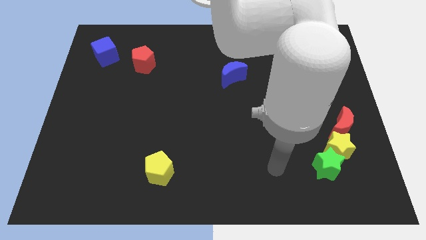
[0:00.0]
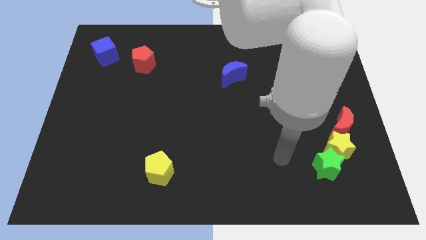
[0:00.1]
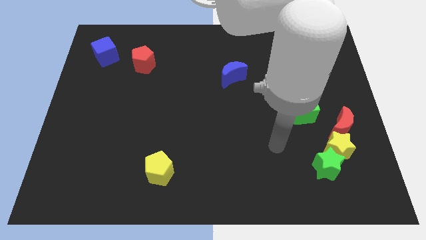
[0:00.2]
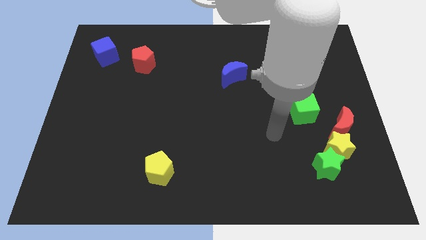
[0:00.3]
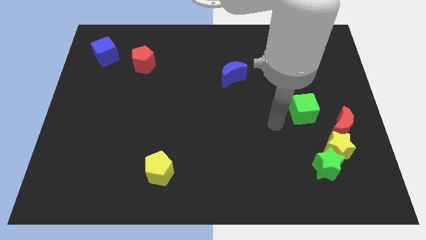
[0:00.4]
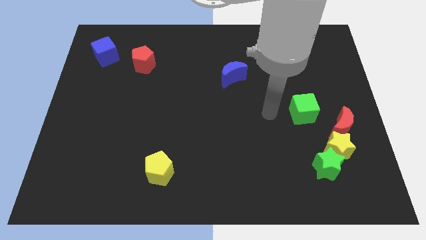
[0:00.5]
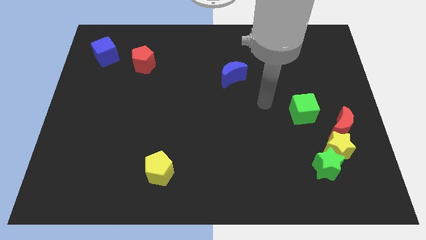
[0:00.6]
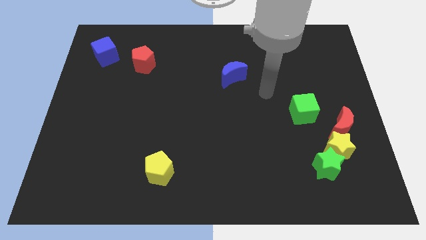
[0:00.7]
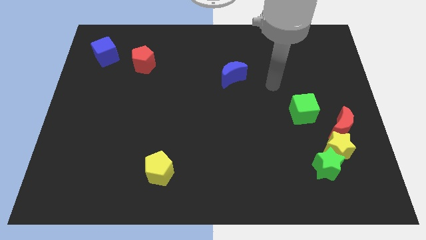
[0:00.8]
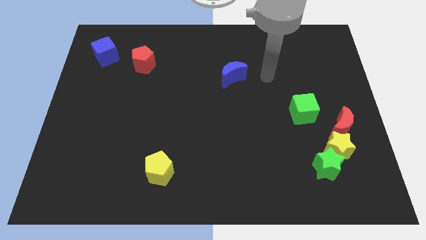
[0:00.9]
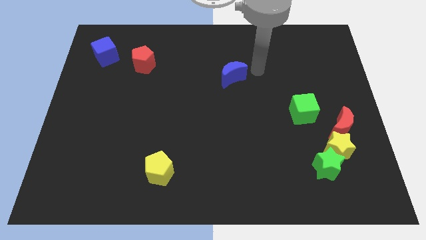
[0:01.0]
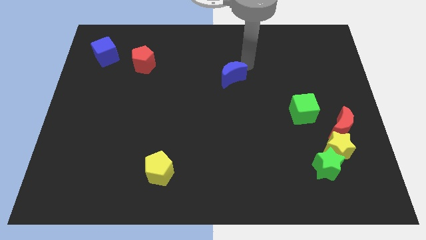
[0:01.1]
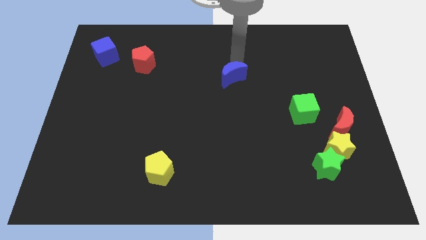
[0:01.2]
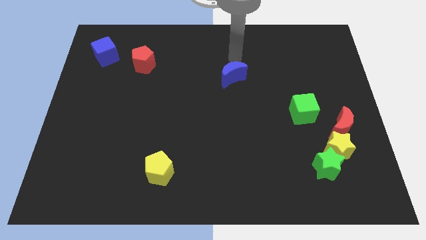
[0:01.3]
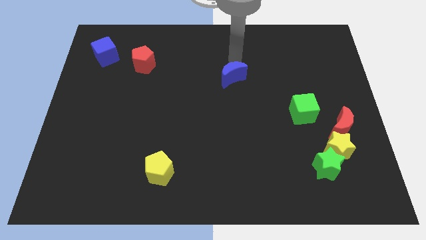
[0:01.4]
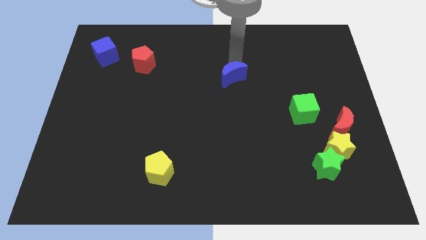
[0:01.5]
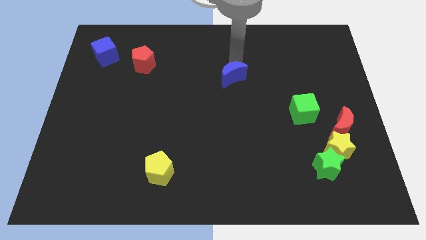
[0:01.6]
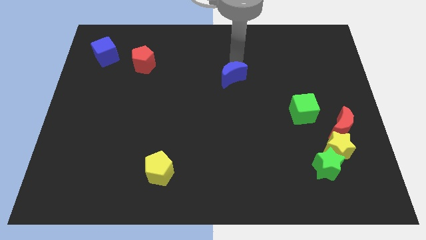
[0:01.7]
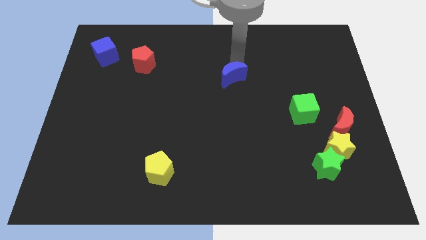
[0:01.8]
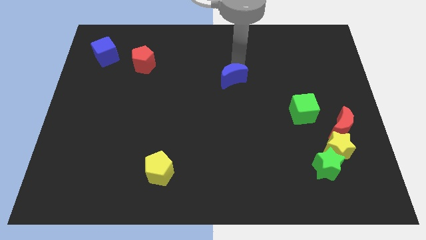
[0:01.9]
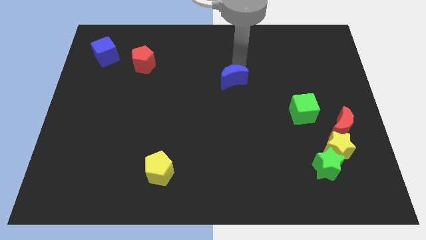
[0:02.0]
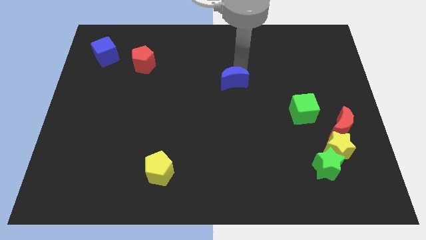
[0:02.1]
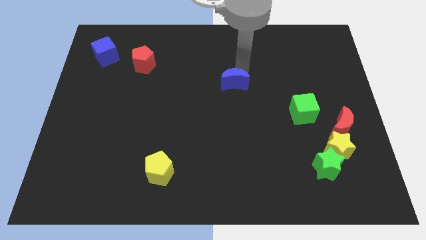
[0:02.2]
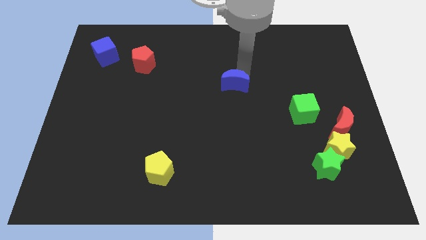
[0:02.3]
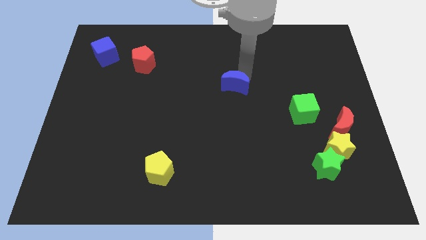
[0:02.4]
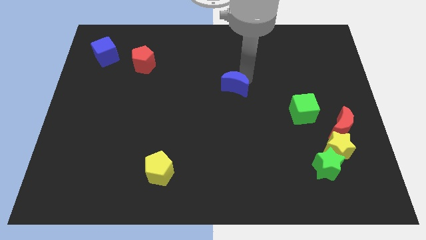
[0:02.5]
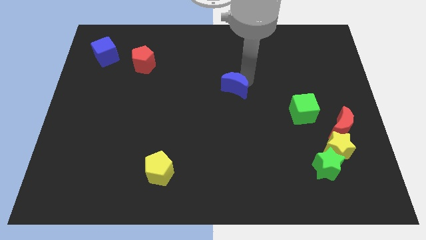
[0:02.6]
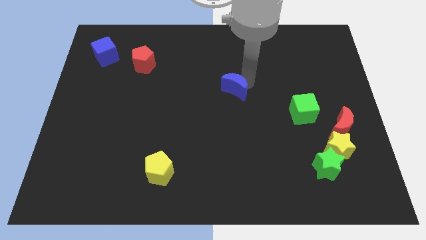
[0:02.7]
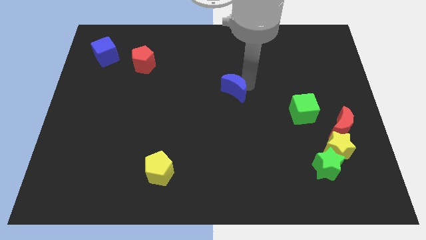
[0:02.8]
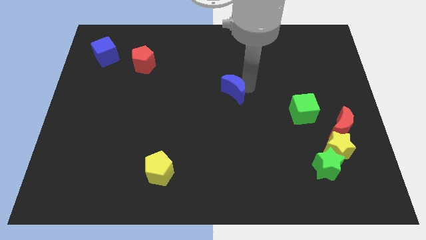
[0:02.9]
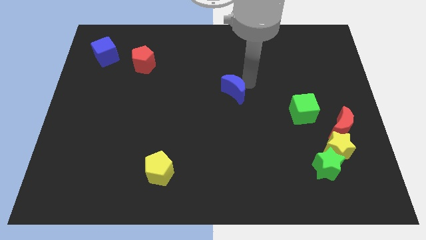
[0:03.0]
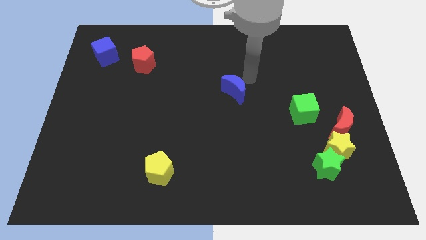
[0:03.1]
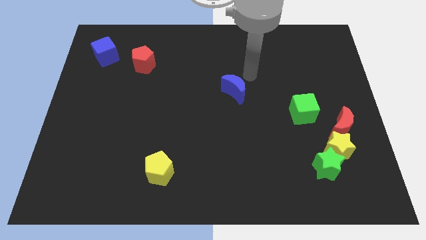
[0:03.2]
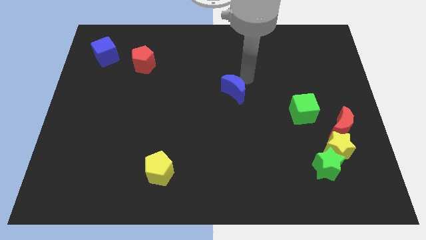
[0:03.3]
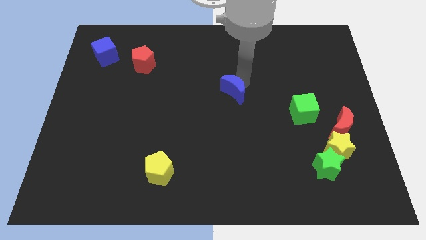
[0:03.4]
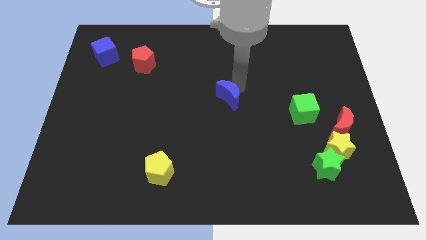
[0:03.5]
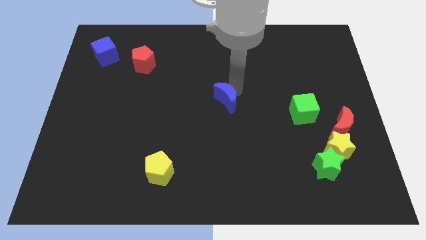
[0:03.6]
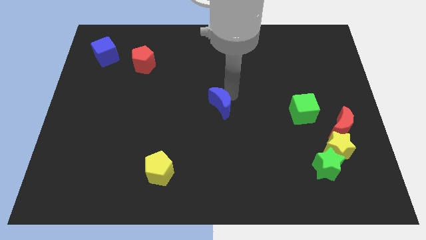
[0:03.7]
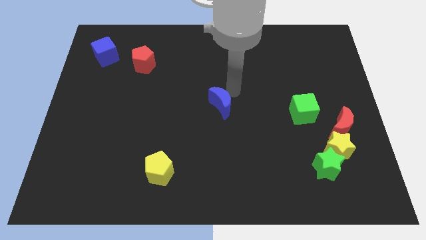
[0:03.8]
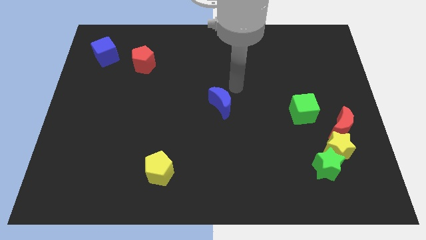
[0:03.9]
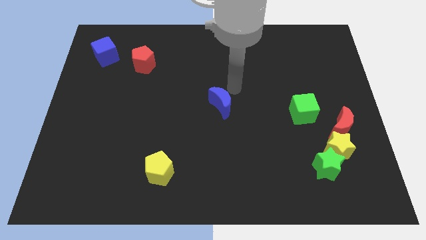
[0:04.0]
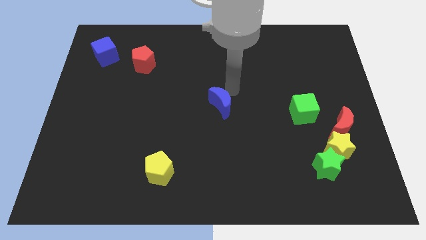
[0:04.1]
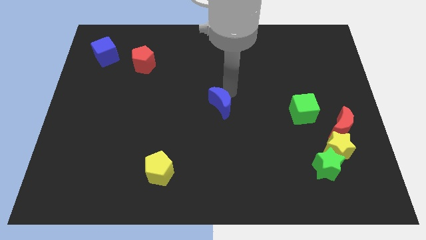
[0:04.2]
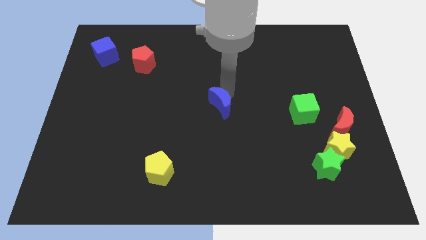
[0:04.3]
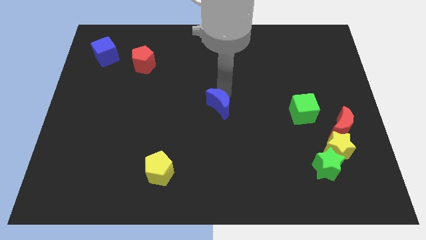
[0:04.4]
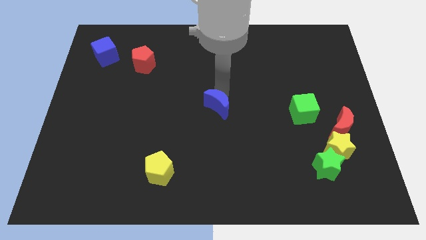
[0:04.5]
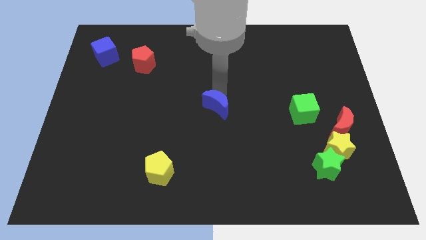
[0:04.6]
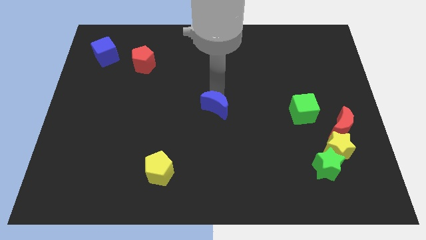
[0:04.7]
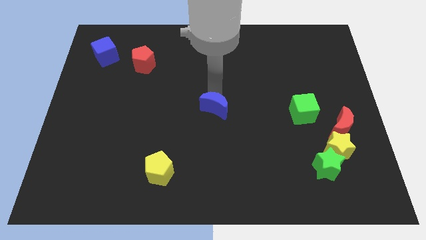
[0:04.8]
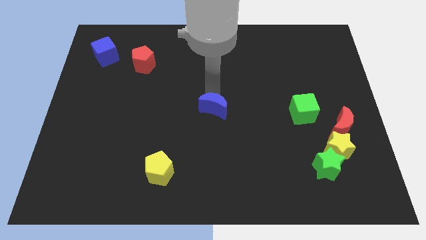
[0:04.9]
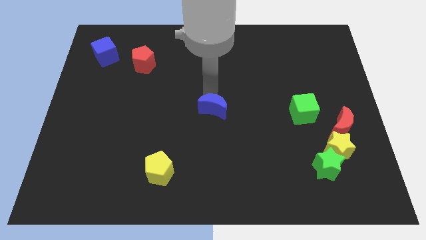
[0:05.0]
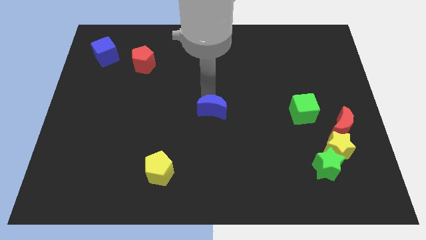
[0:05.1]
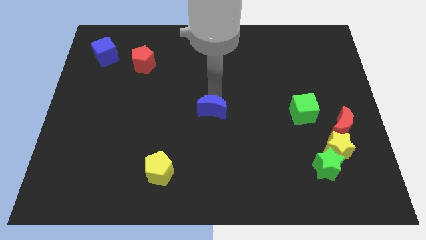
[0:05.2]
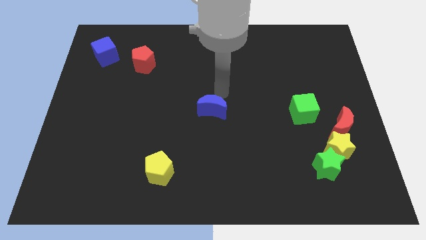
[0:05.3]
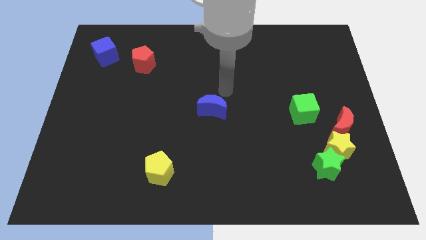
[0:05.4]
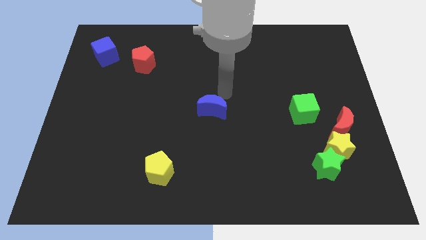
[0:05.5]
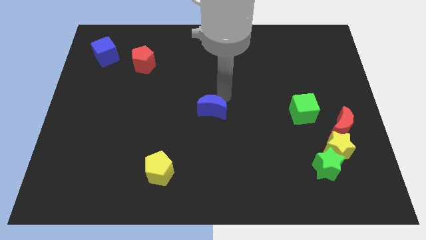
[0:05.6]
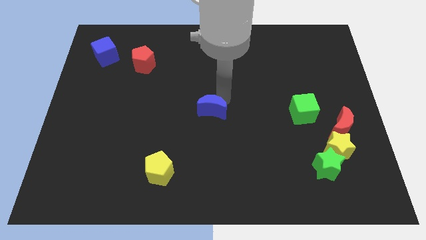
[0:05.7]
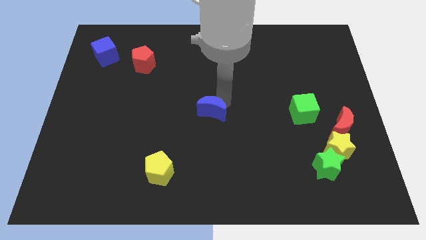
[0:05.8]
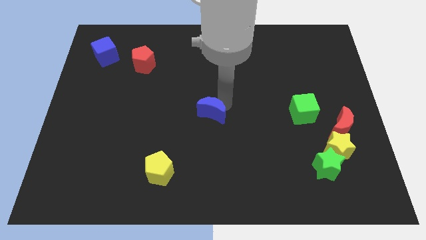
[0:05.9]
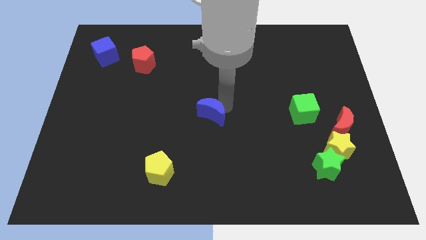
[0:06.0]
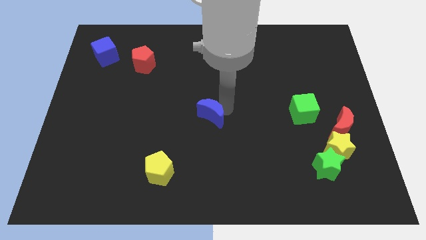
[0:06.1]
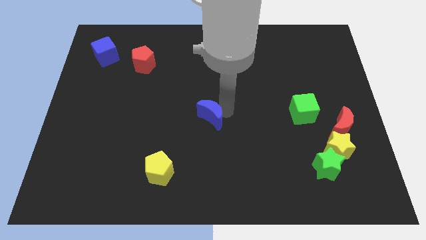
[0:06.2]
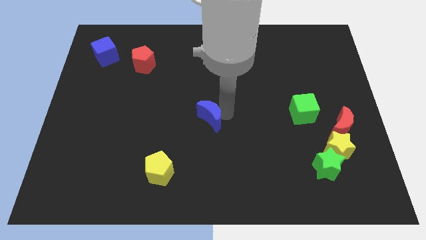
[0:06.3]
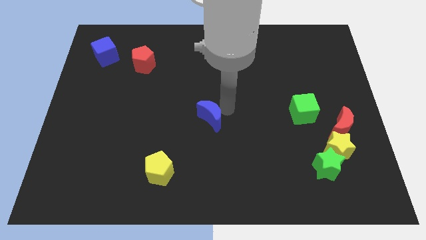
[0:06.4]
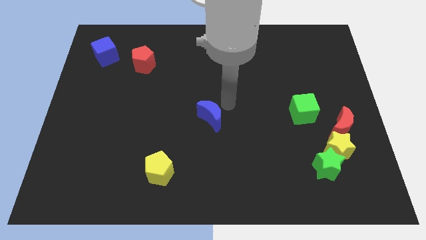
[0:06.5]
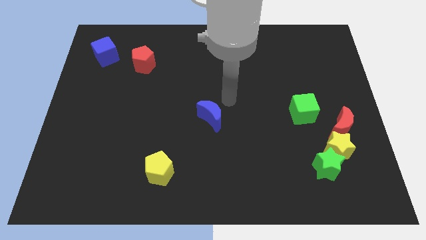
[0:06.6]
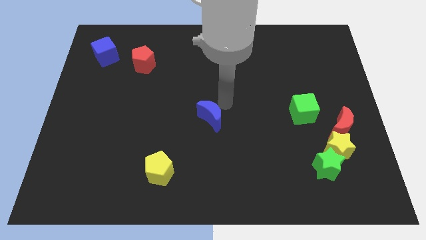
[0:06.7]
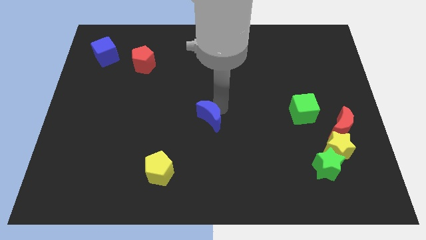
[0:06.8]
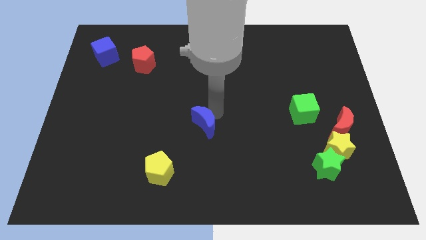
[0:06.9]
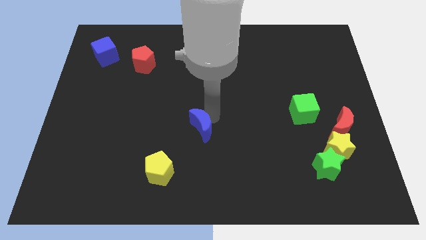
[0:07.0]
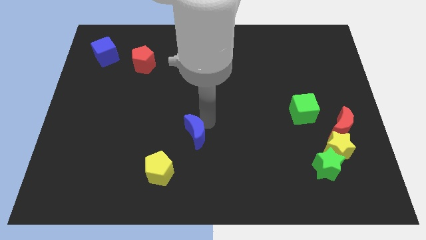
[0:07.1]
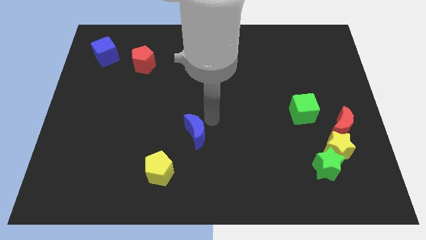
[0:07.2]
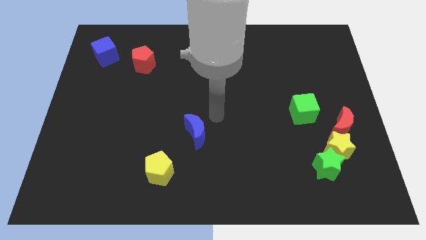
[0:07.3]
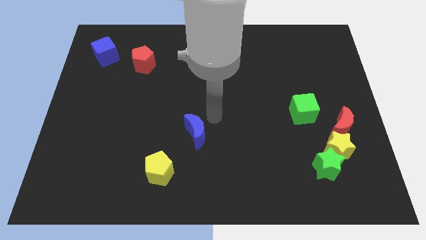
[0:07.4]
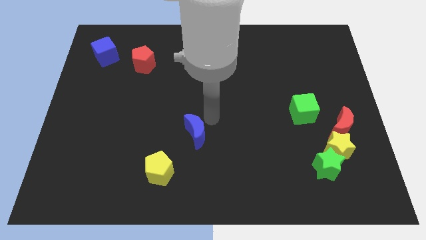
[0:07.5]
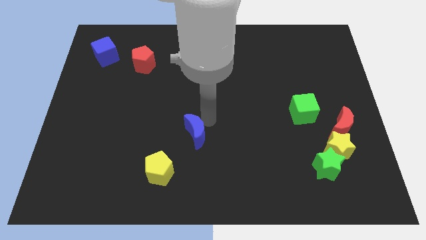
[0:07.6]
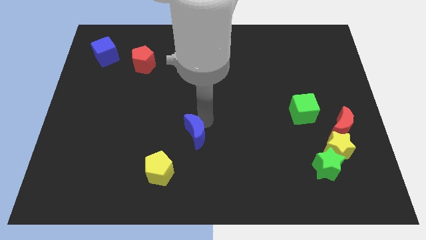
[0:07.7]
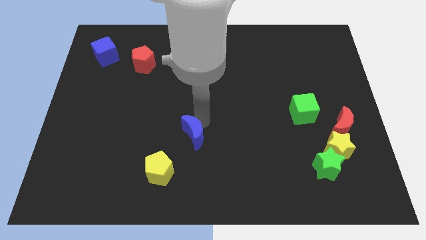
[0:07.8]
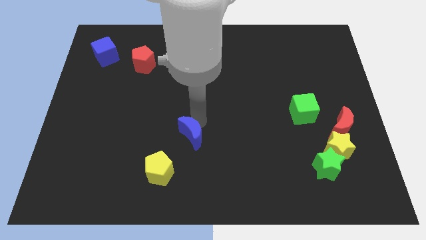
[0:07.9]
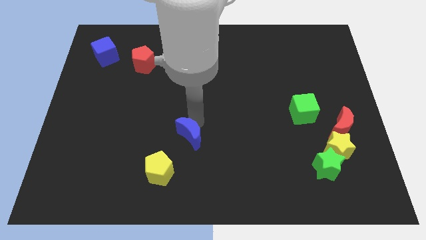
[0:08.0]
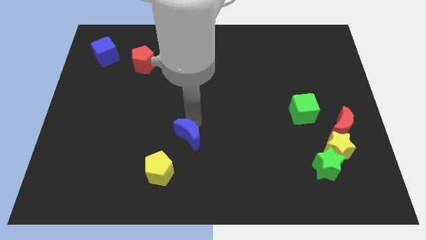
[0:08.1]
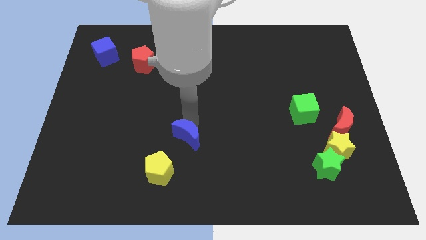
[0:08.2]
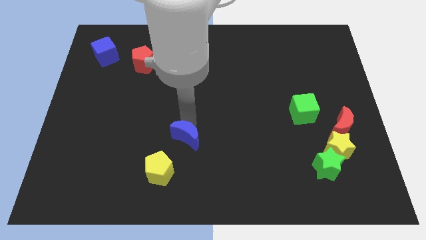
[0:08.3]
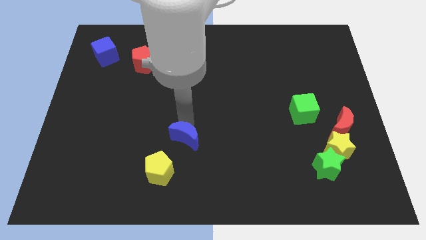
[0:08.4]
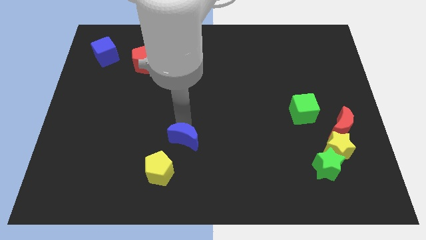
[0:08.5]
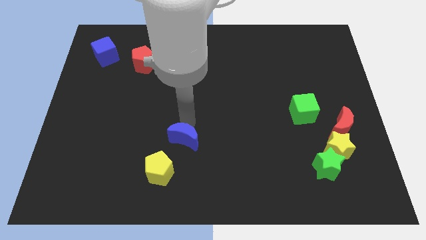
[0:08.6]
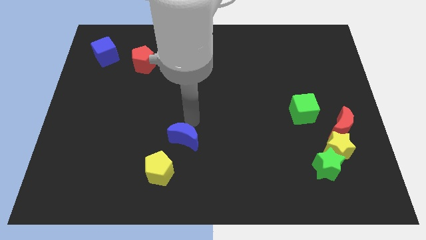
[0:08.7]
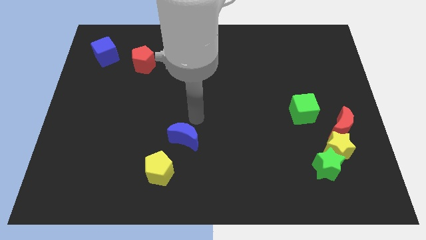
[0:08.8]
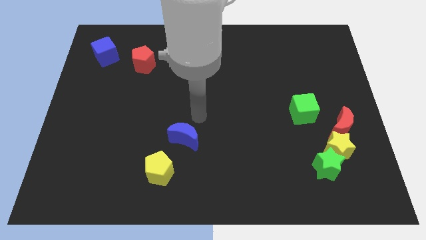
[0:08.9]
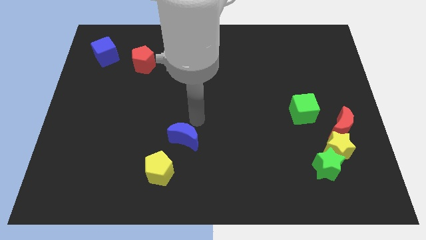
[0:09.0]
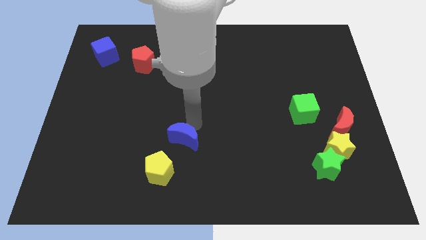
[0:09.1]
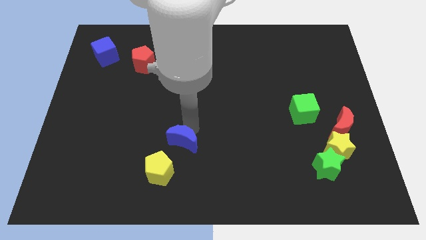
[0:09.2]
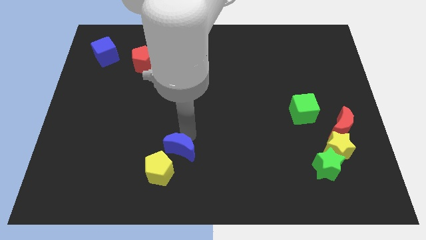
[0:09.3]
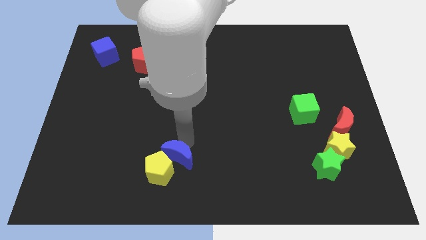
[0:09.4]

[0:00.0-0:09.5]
push the blue moon towards the yellow pentagon
